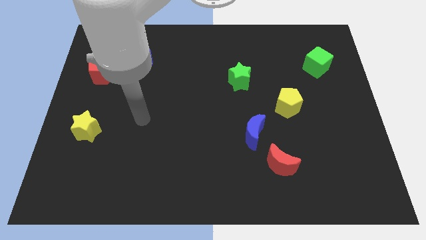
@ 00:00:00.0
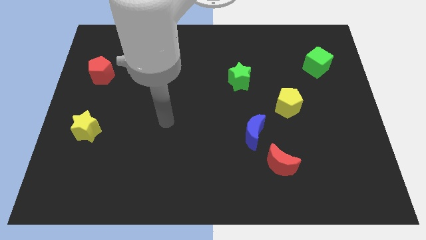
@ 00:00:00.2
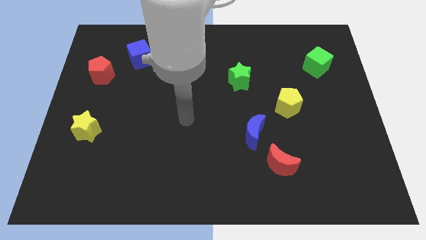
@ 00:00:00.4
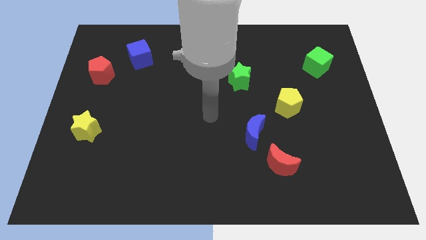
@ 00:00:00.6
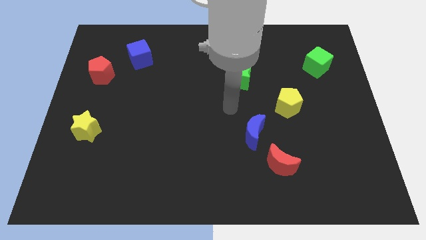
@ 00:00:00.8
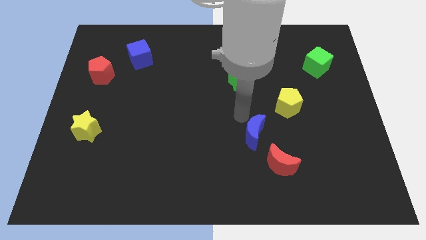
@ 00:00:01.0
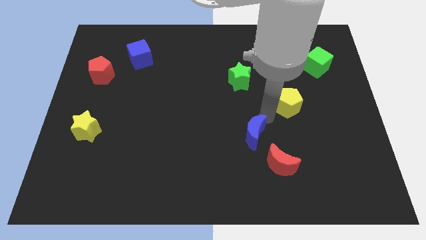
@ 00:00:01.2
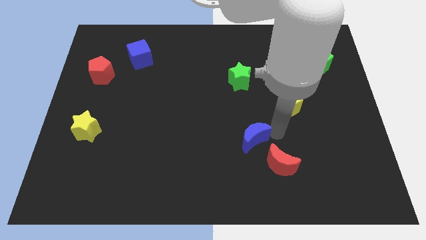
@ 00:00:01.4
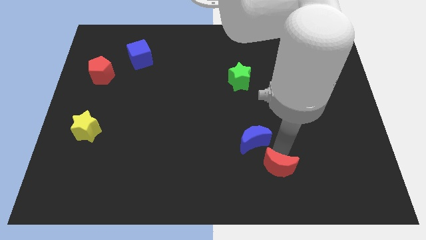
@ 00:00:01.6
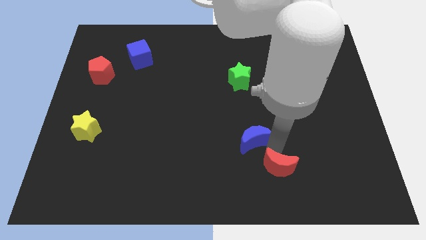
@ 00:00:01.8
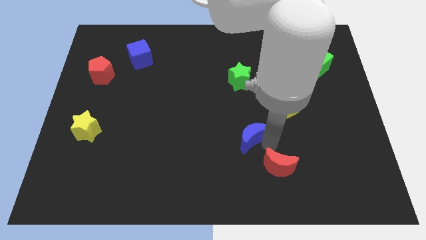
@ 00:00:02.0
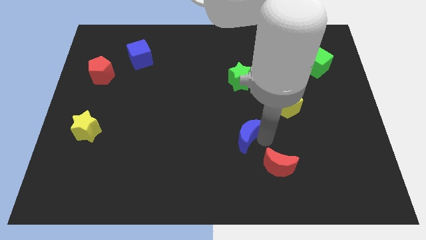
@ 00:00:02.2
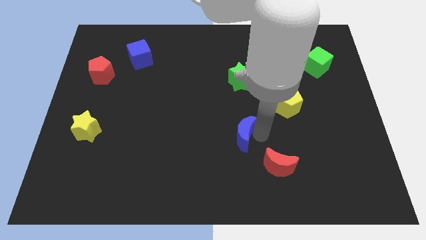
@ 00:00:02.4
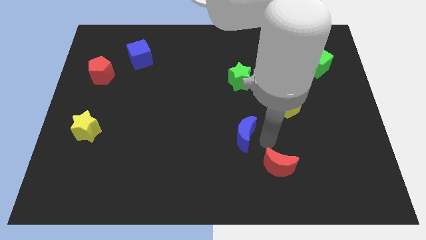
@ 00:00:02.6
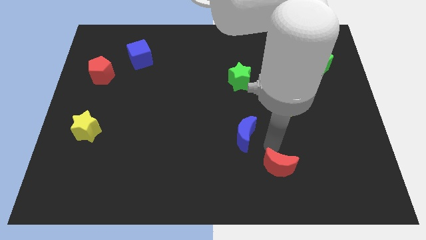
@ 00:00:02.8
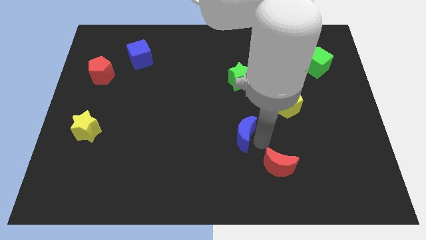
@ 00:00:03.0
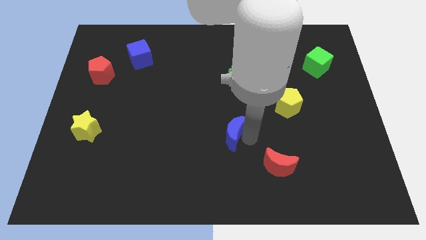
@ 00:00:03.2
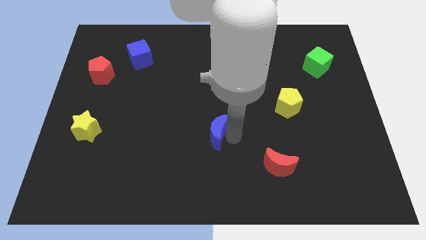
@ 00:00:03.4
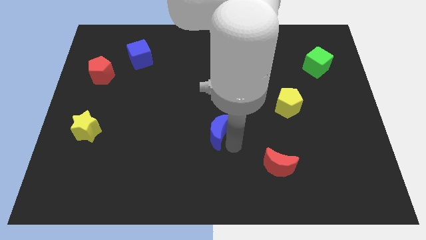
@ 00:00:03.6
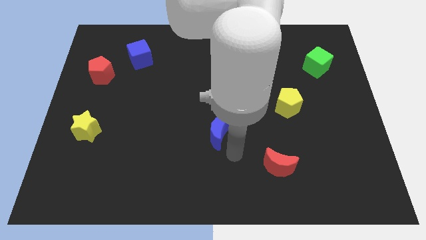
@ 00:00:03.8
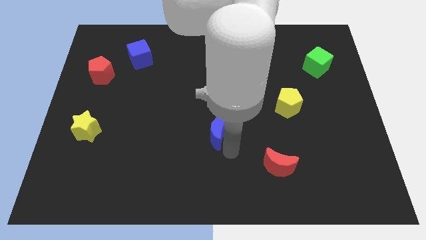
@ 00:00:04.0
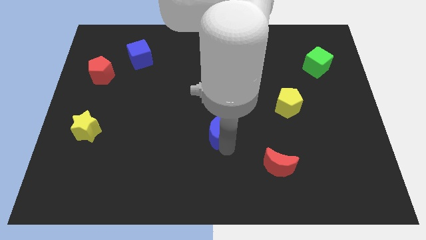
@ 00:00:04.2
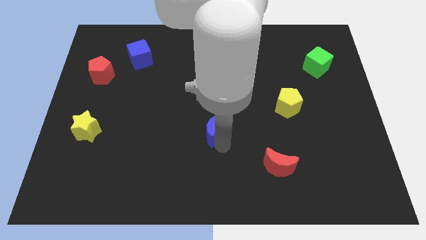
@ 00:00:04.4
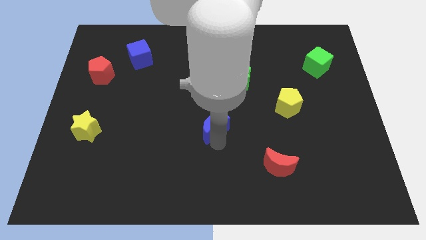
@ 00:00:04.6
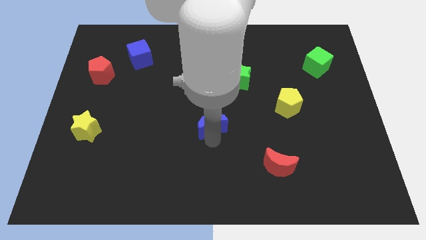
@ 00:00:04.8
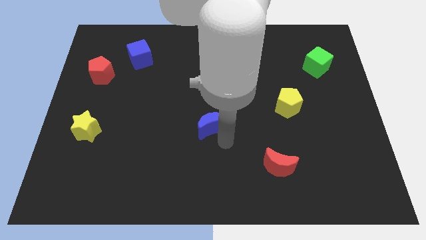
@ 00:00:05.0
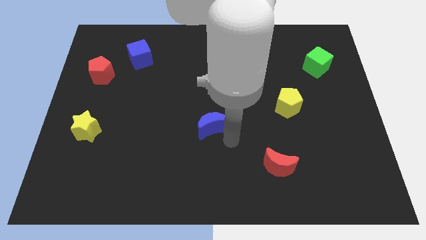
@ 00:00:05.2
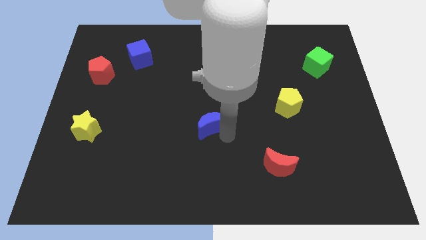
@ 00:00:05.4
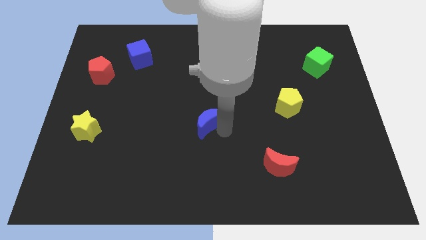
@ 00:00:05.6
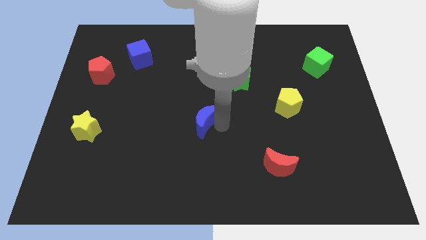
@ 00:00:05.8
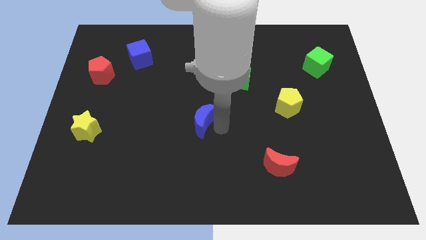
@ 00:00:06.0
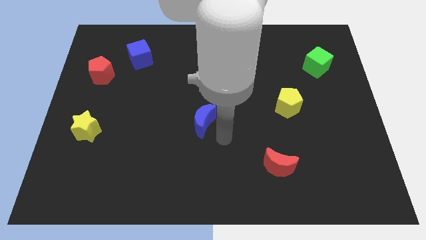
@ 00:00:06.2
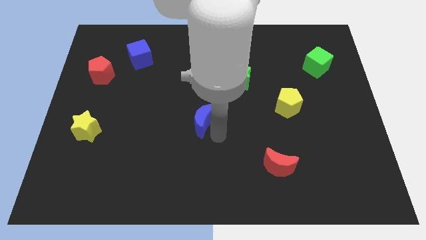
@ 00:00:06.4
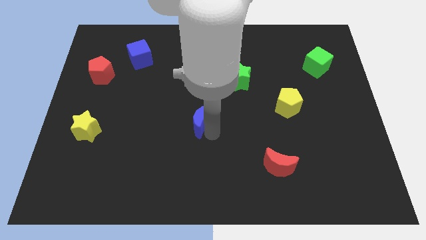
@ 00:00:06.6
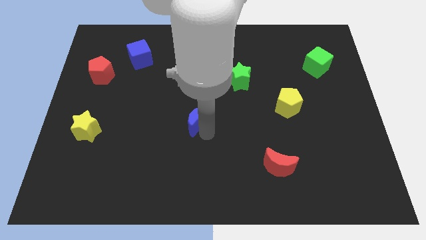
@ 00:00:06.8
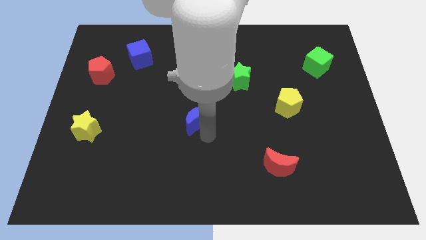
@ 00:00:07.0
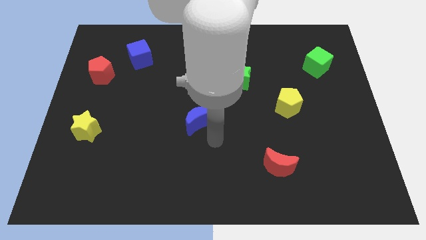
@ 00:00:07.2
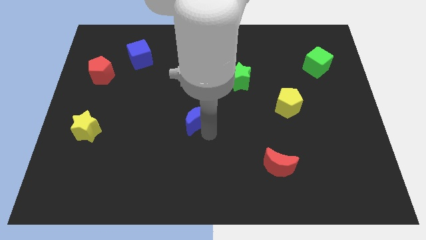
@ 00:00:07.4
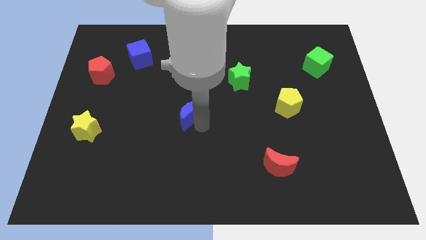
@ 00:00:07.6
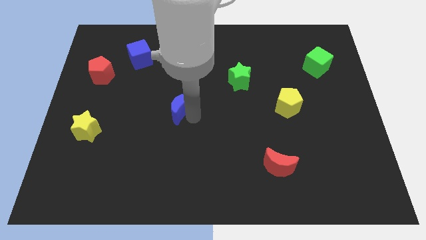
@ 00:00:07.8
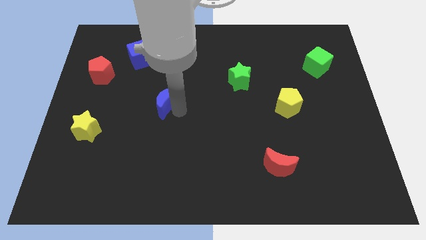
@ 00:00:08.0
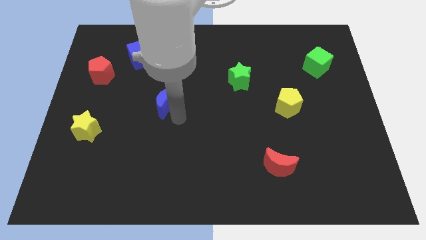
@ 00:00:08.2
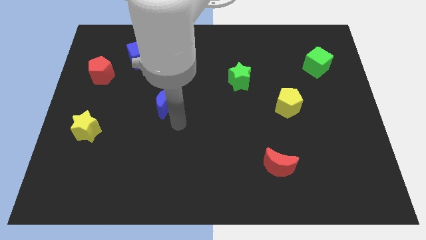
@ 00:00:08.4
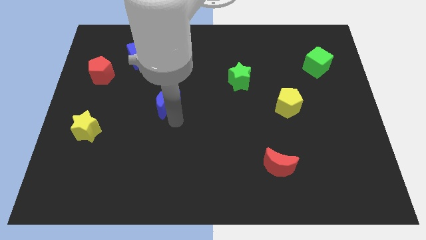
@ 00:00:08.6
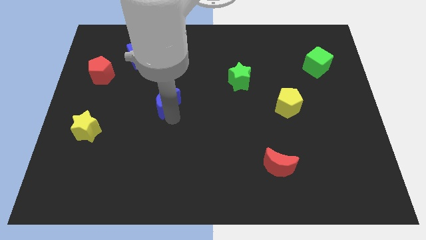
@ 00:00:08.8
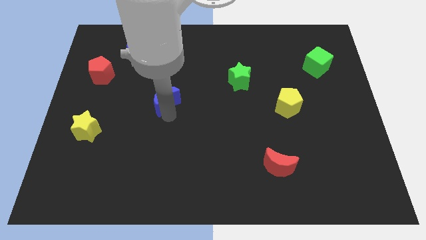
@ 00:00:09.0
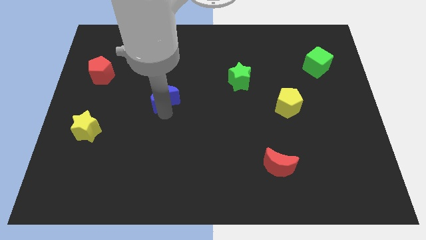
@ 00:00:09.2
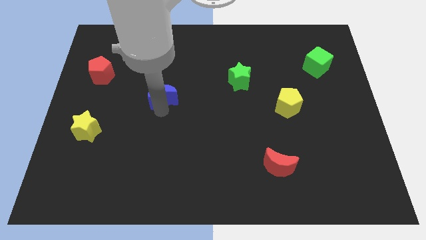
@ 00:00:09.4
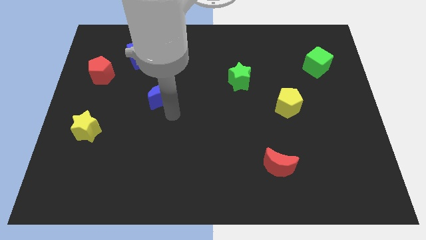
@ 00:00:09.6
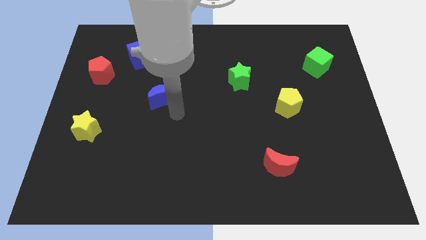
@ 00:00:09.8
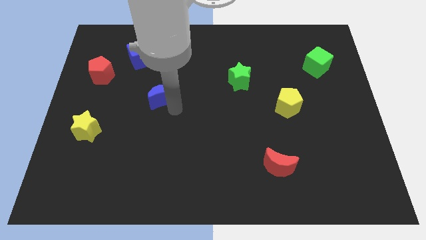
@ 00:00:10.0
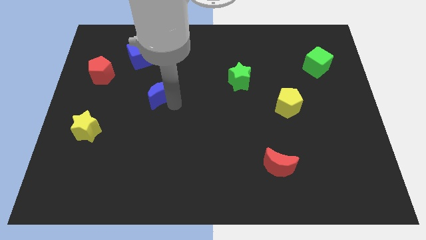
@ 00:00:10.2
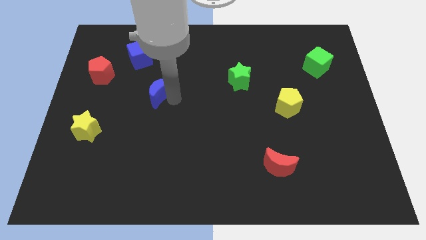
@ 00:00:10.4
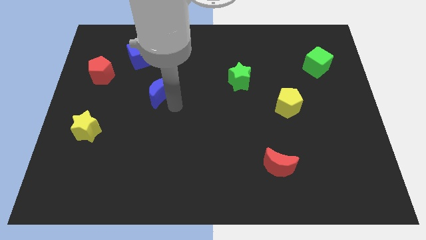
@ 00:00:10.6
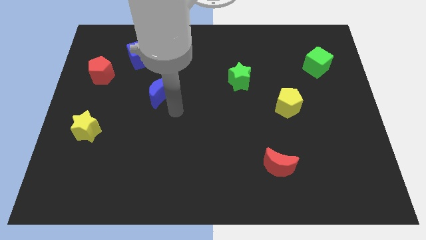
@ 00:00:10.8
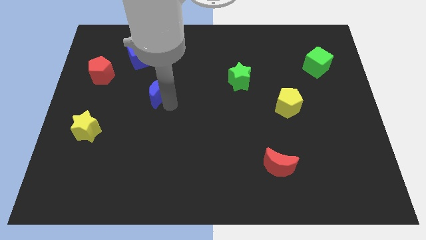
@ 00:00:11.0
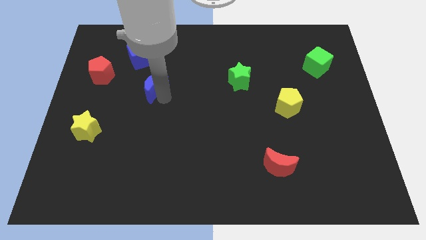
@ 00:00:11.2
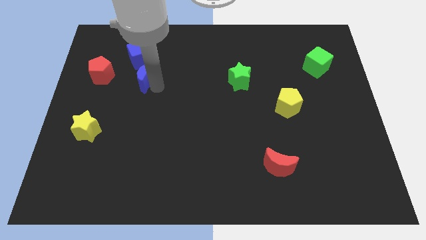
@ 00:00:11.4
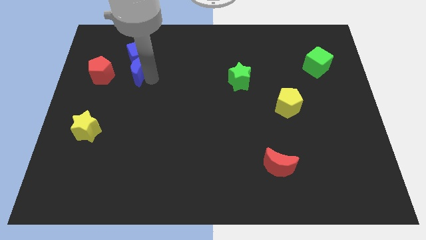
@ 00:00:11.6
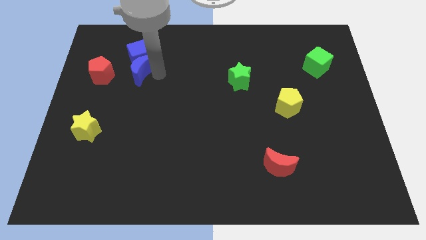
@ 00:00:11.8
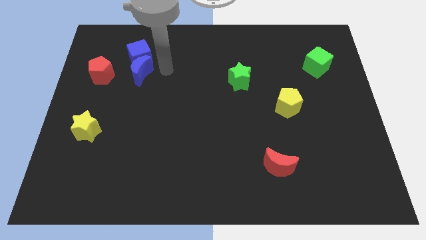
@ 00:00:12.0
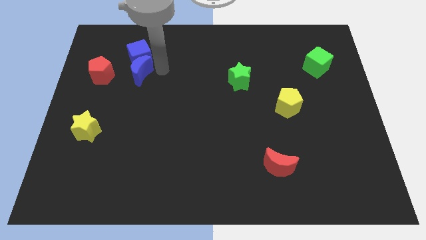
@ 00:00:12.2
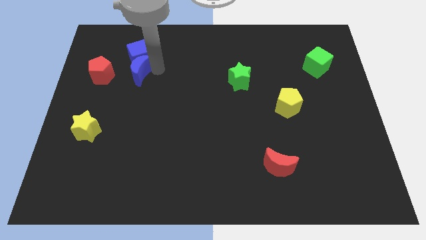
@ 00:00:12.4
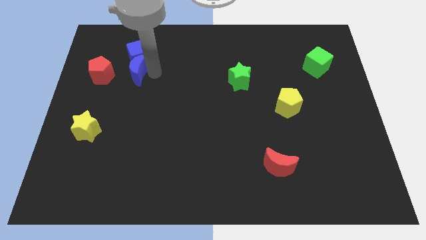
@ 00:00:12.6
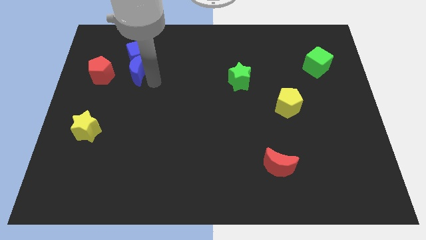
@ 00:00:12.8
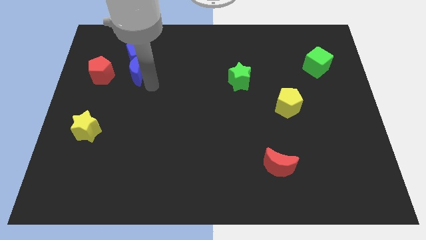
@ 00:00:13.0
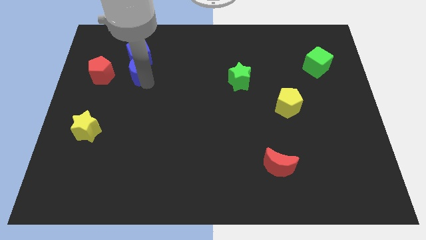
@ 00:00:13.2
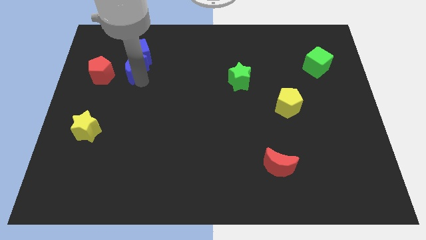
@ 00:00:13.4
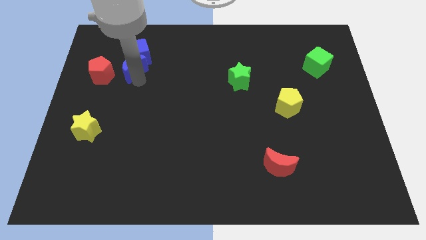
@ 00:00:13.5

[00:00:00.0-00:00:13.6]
put the blue moon to the top right of the red pentagon
